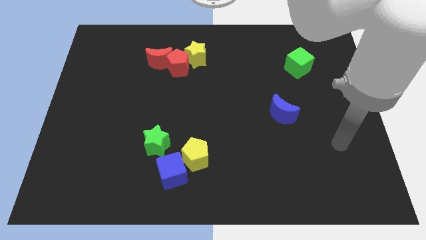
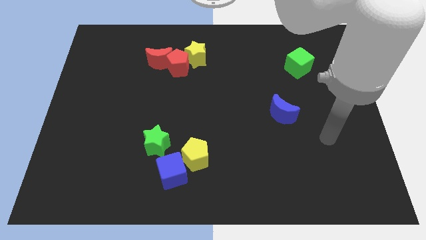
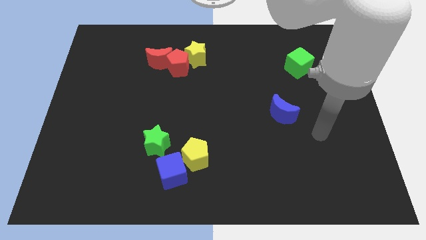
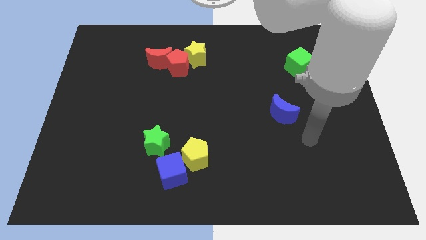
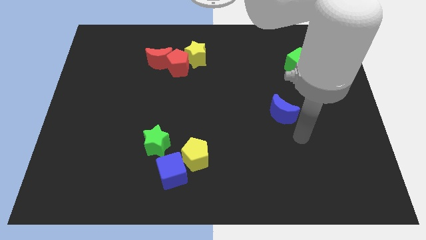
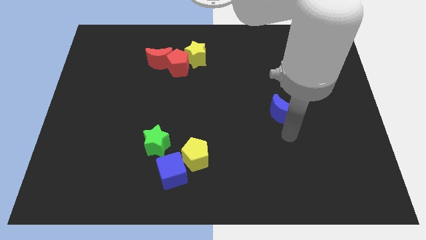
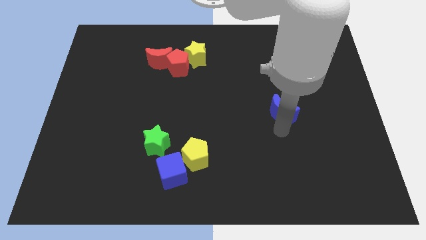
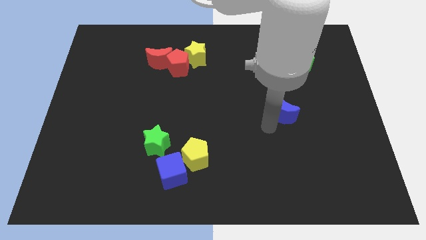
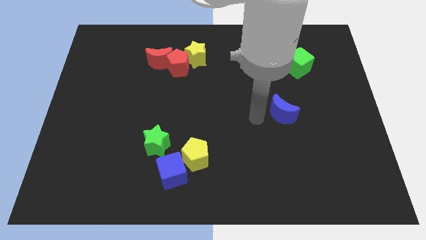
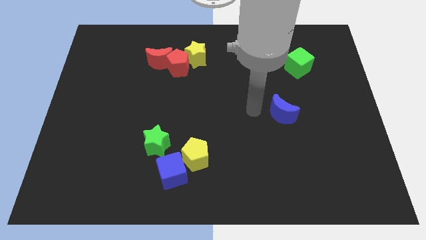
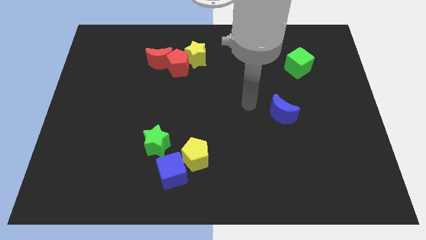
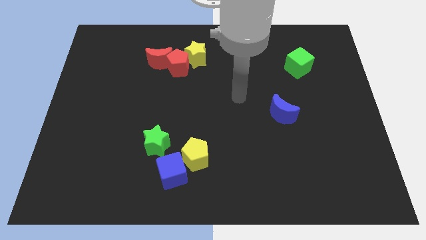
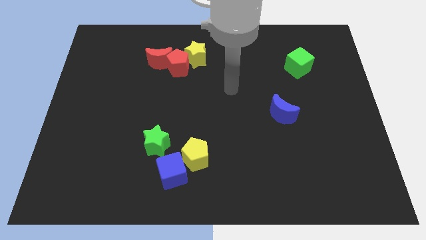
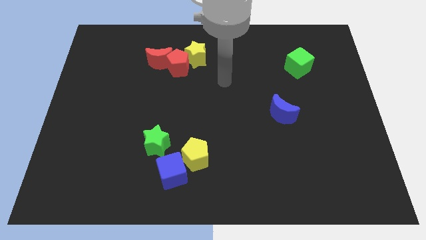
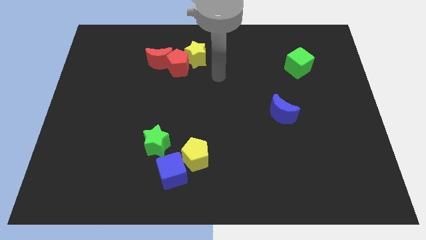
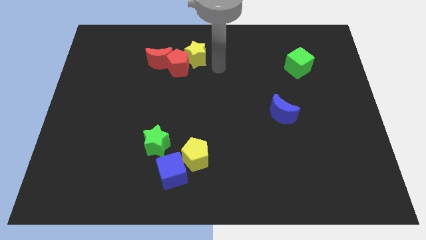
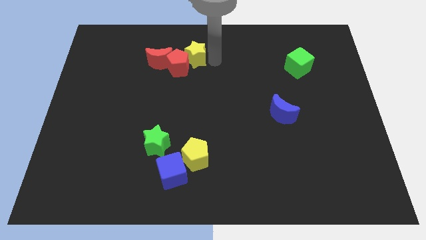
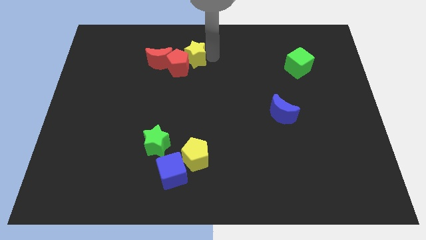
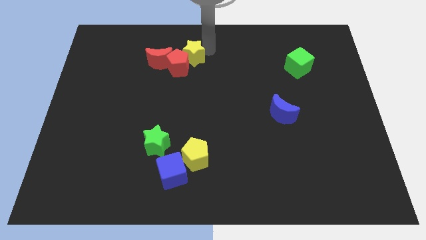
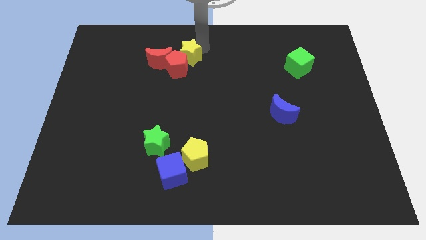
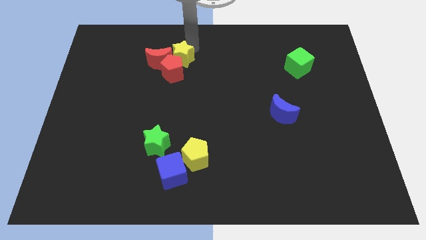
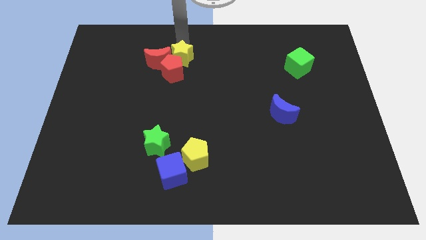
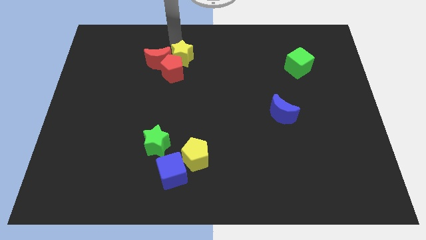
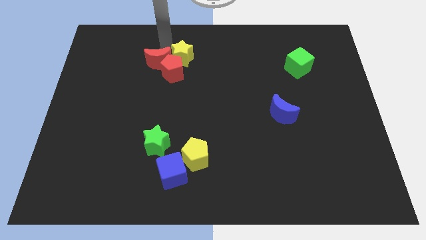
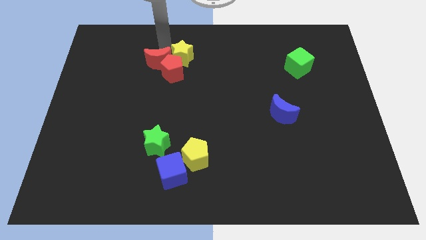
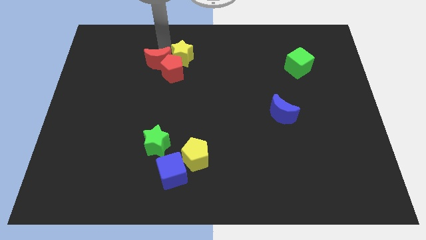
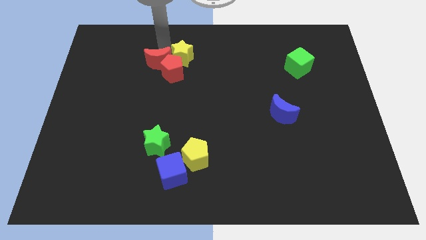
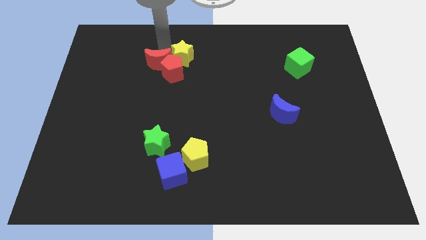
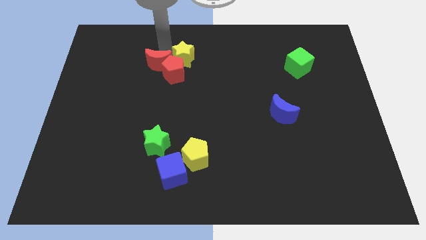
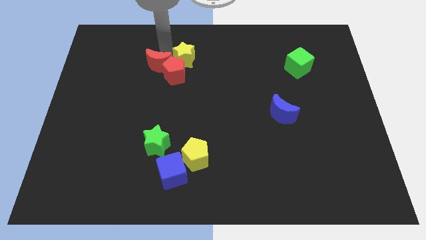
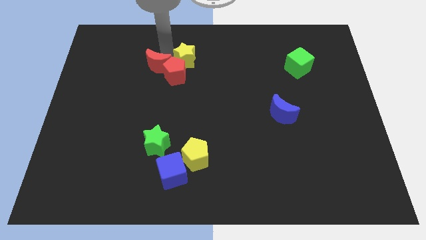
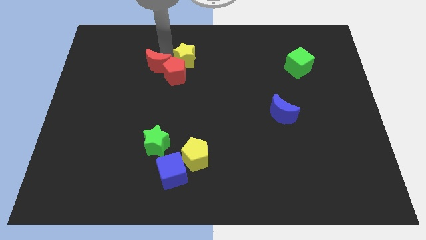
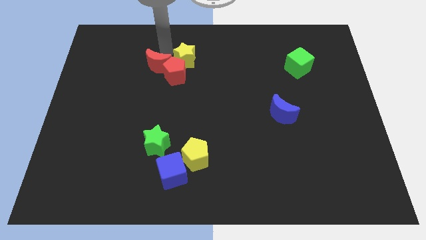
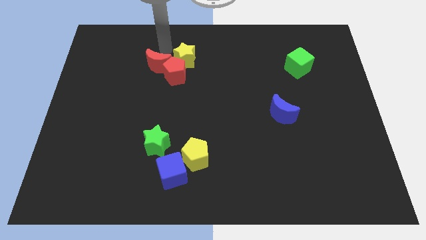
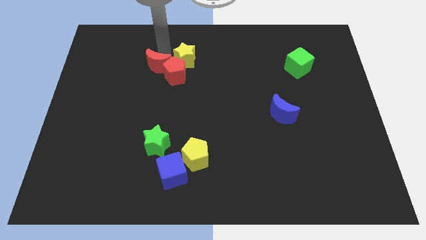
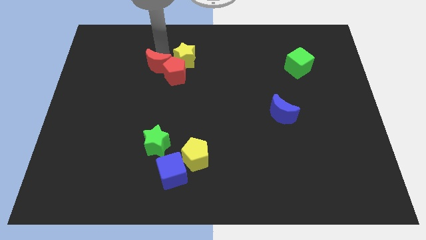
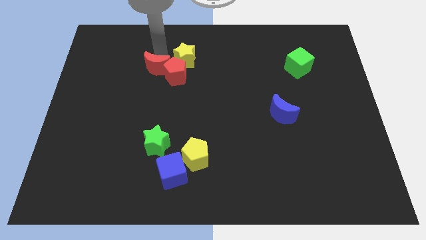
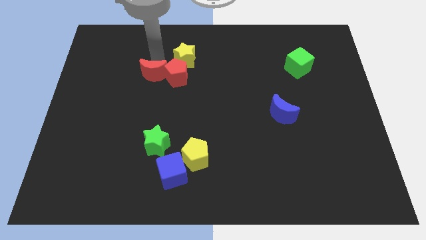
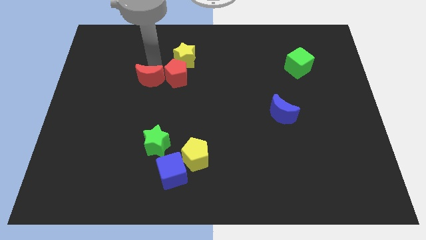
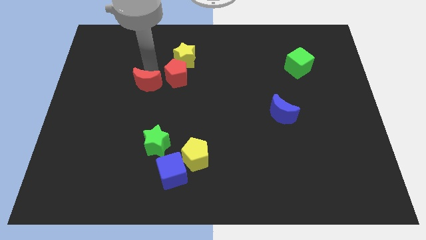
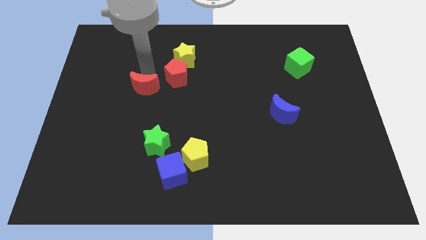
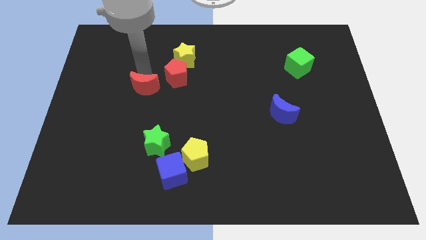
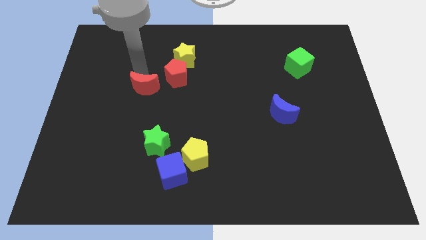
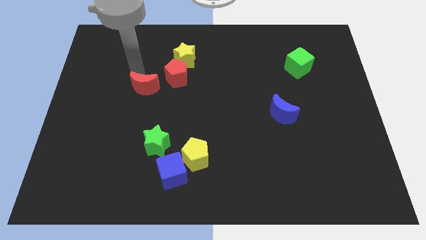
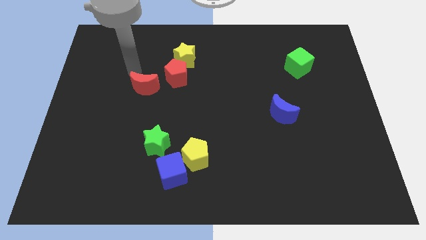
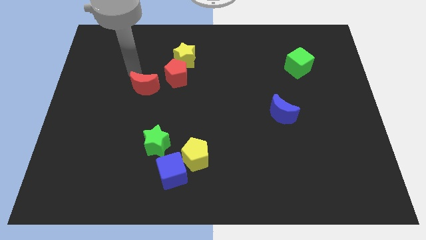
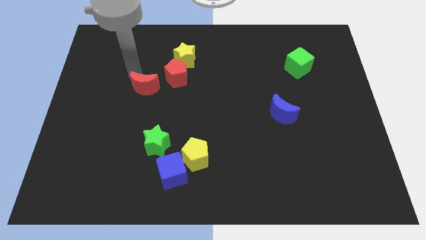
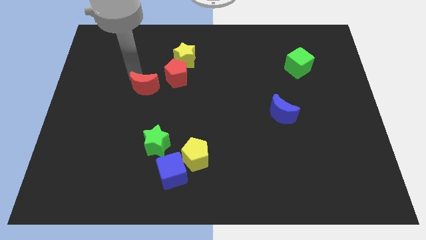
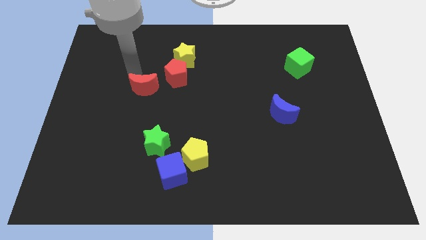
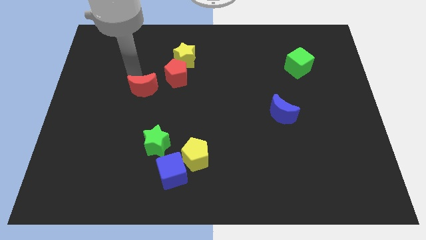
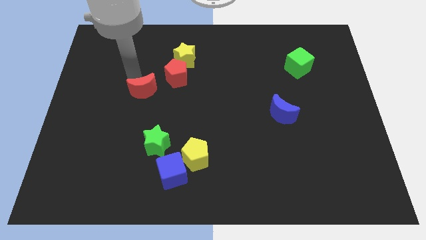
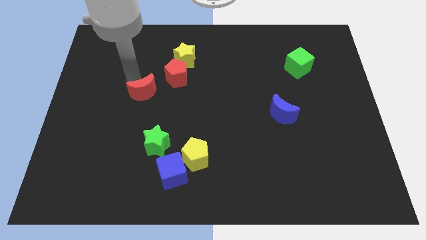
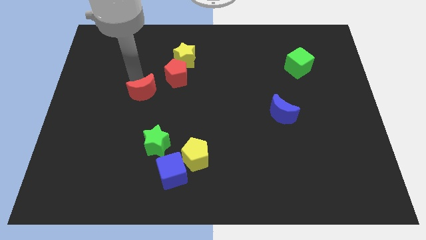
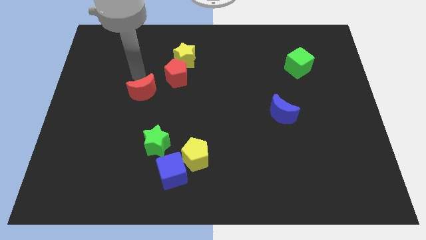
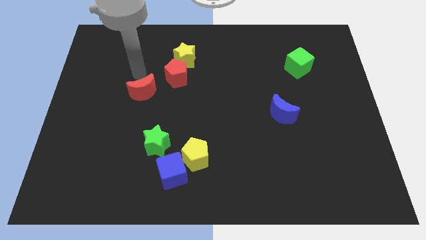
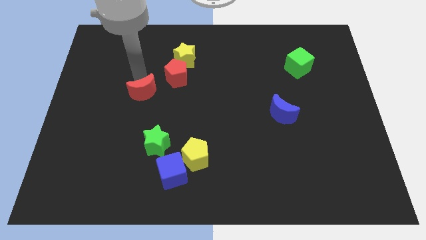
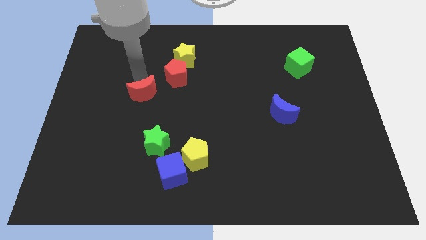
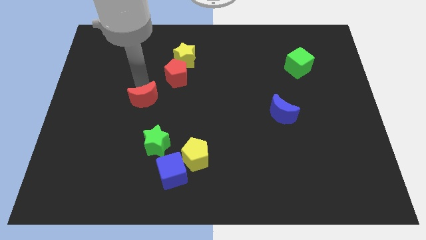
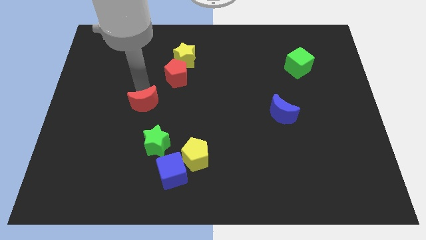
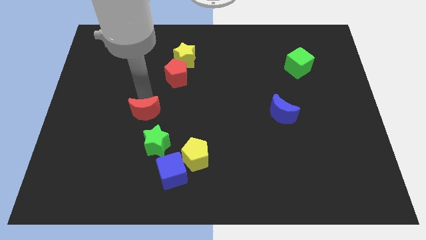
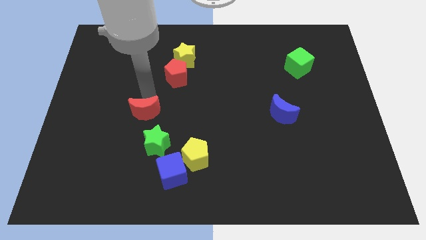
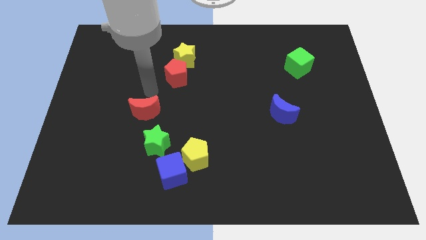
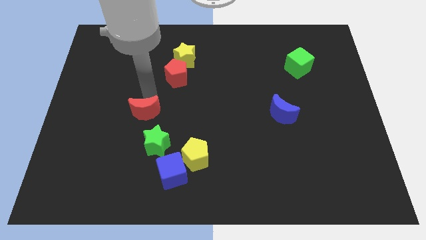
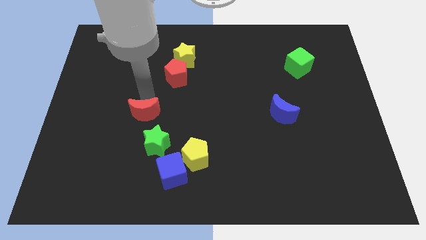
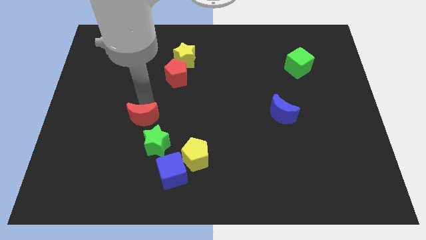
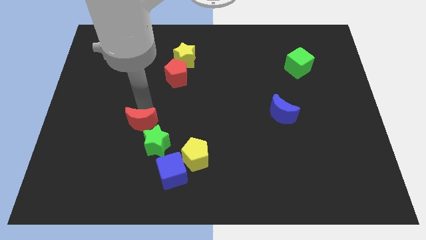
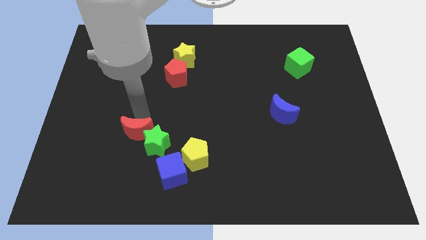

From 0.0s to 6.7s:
slide the red moon down

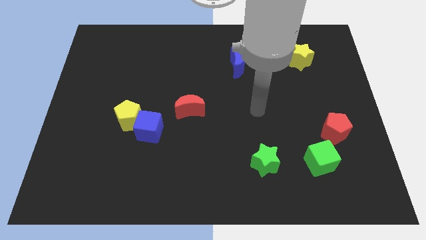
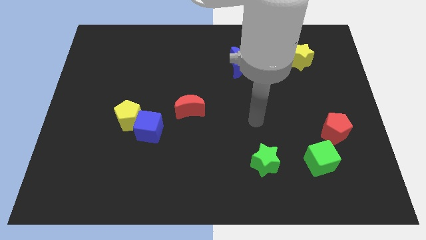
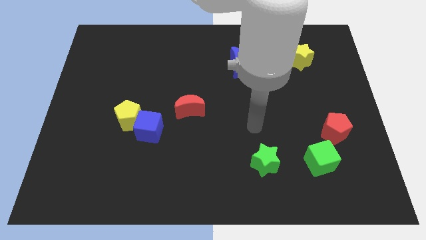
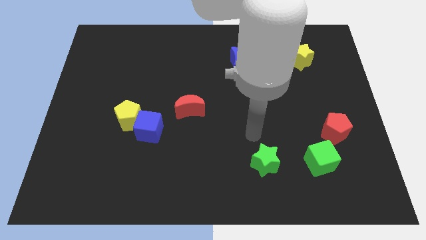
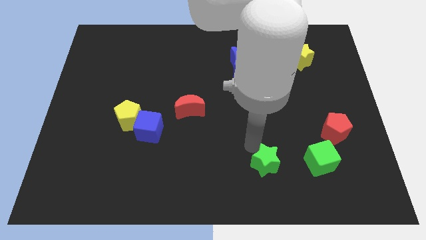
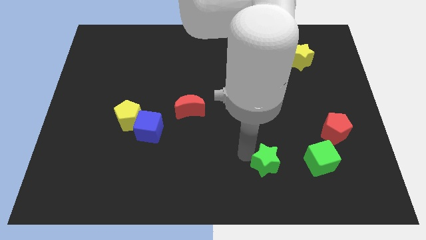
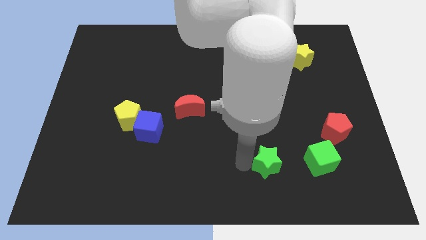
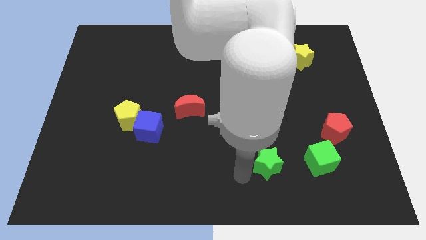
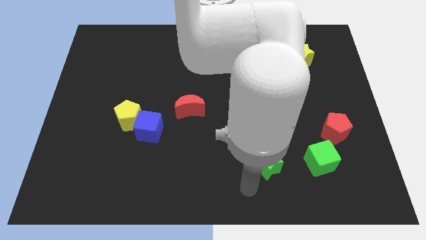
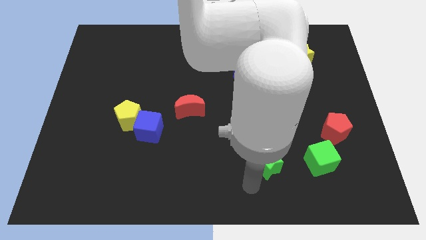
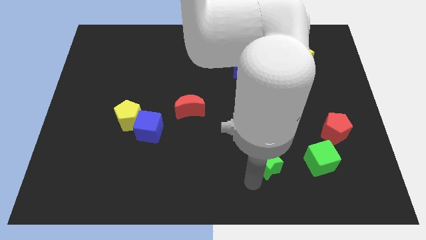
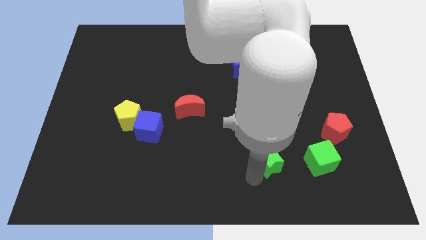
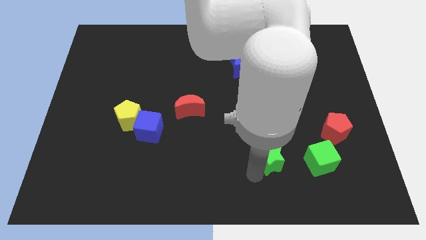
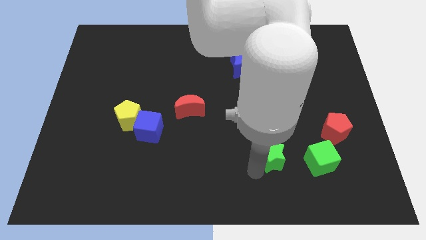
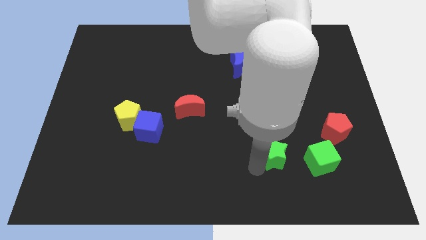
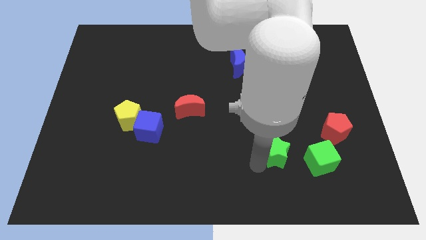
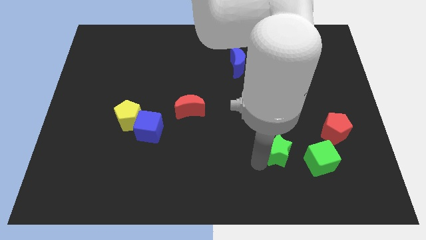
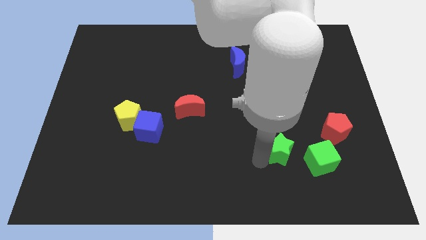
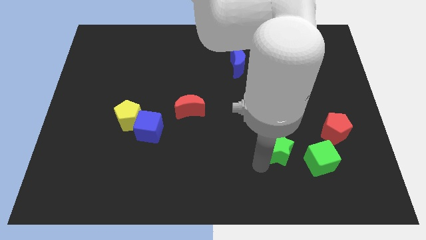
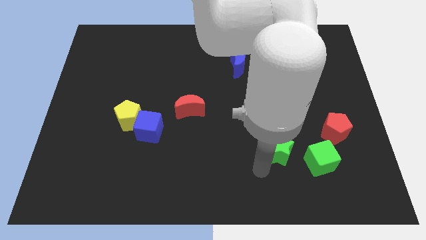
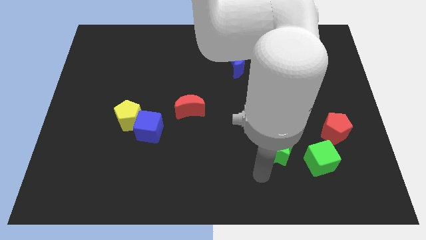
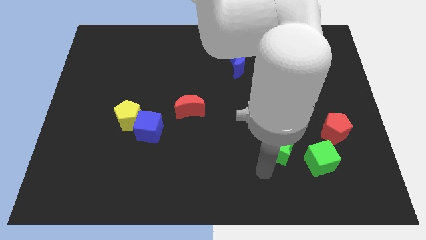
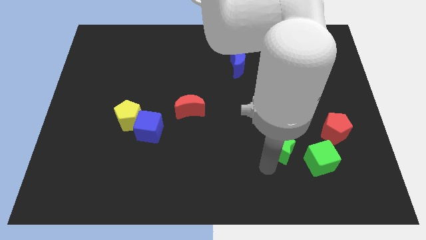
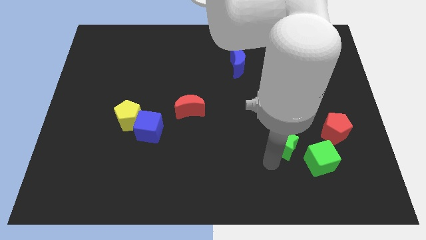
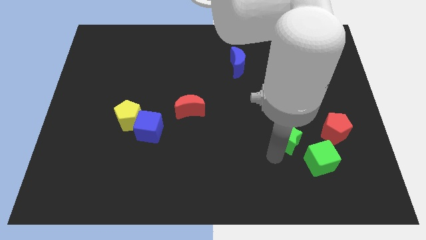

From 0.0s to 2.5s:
slightly push the green star upwards and to the right
